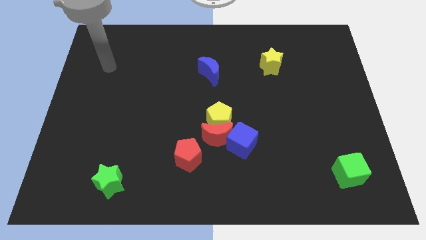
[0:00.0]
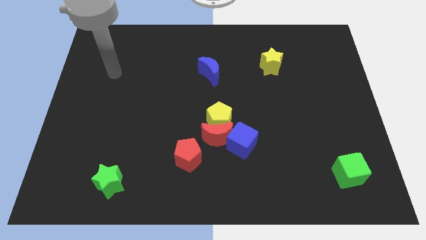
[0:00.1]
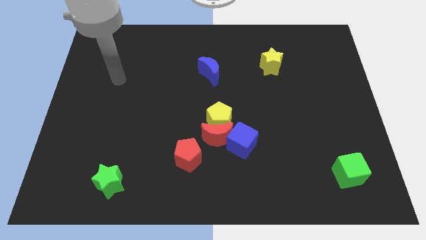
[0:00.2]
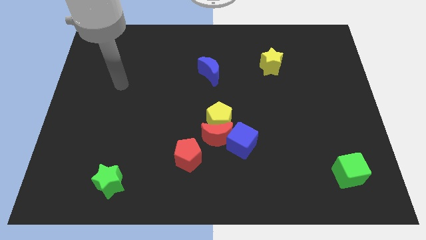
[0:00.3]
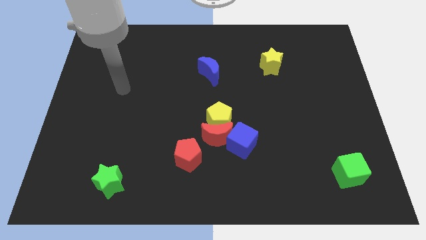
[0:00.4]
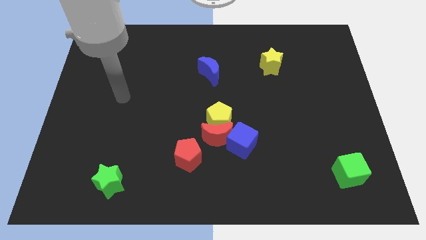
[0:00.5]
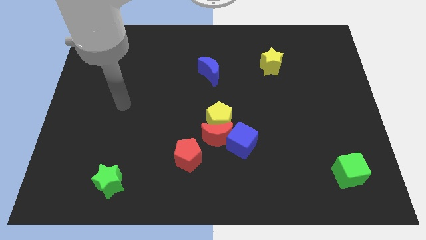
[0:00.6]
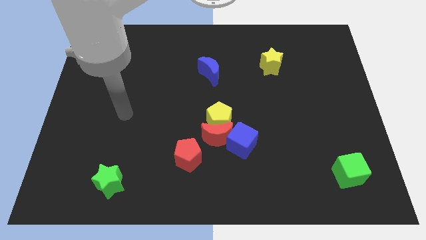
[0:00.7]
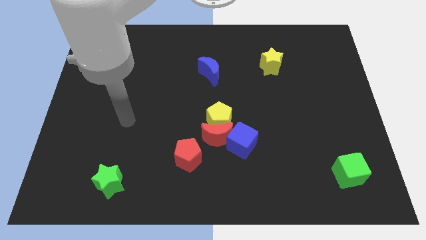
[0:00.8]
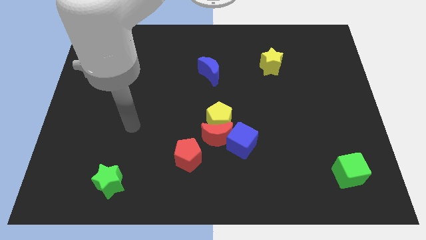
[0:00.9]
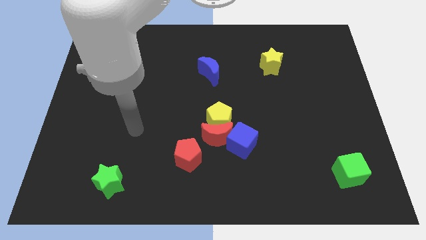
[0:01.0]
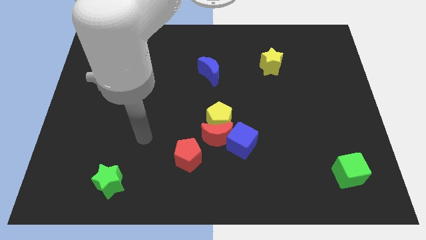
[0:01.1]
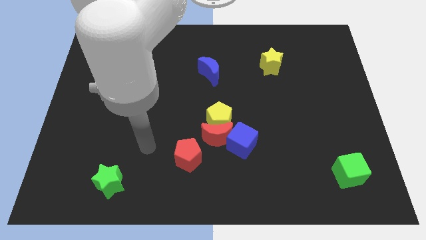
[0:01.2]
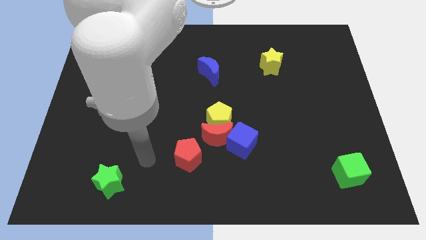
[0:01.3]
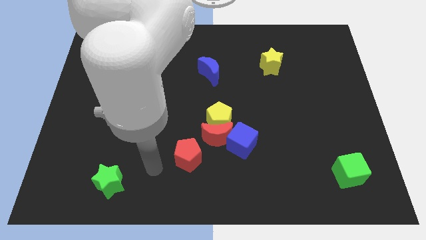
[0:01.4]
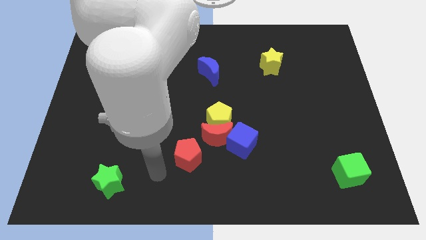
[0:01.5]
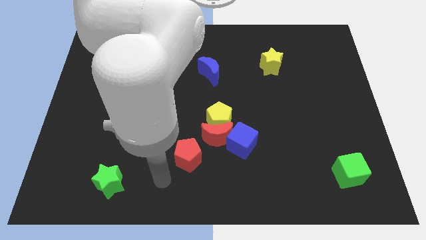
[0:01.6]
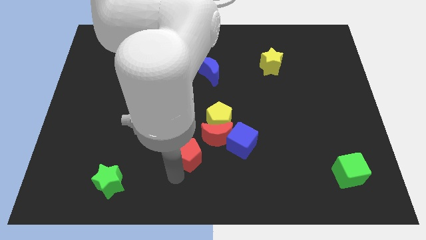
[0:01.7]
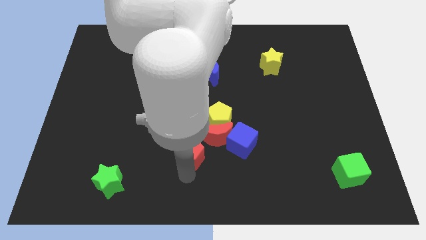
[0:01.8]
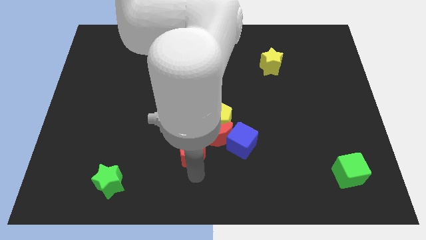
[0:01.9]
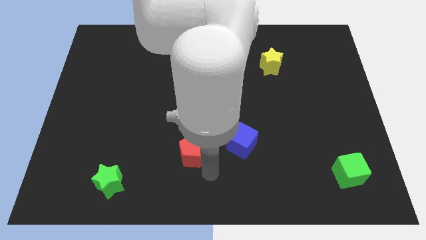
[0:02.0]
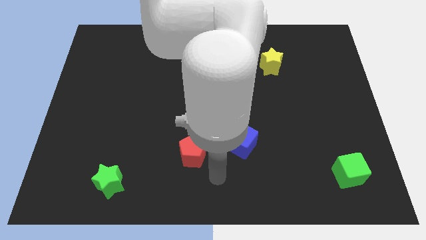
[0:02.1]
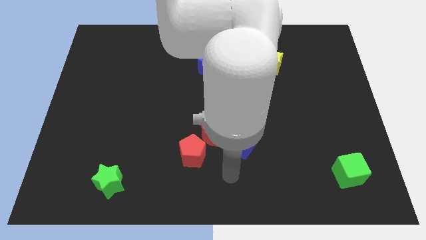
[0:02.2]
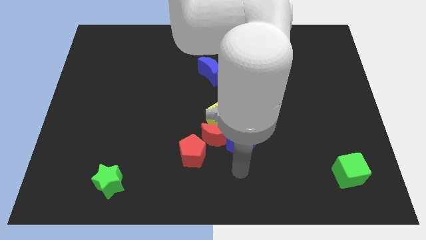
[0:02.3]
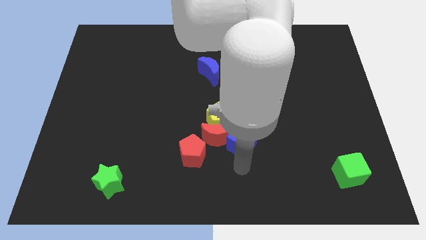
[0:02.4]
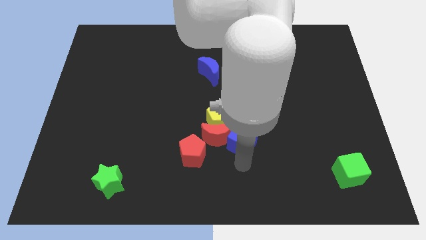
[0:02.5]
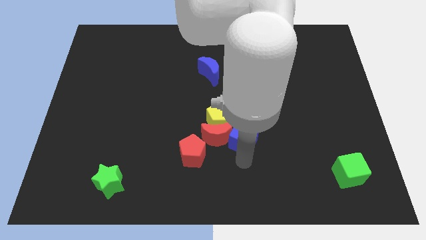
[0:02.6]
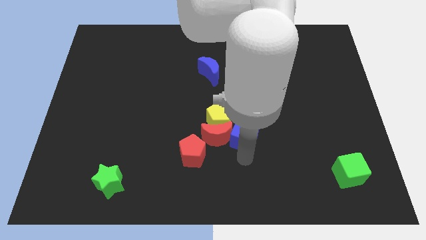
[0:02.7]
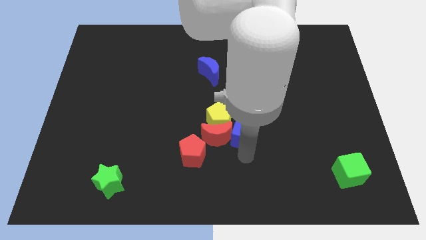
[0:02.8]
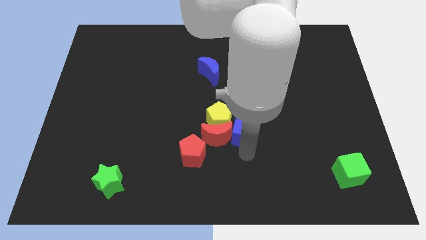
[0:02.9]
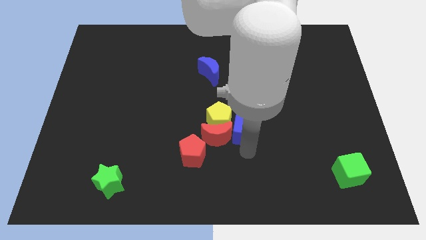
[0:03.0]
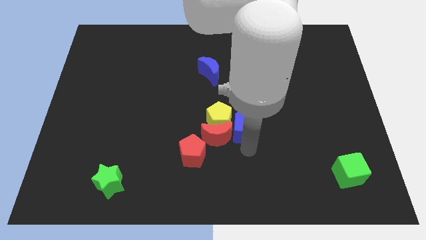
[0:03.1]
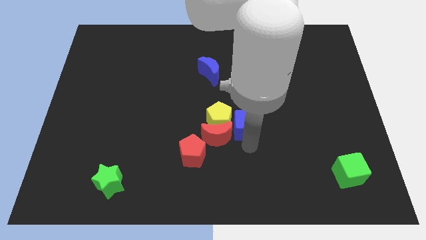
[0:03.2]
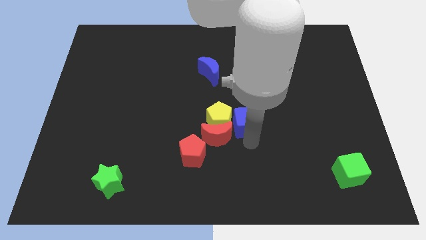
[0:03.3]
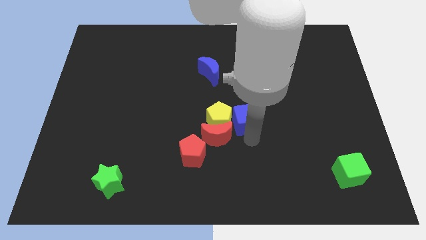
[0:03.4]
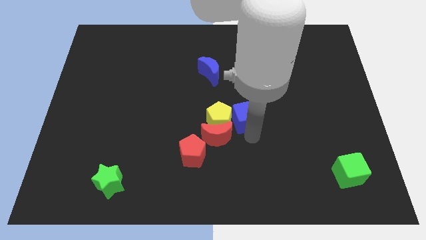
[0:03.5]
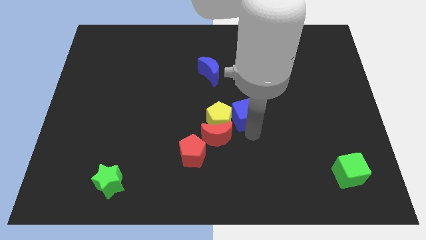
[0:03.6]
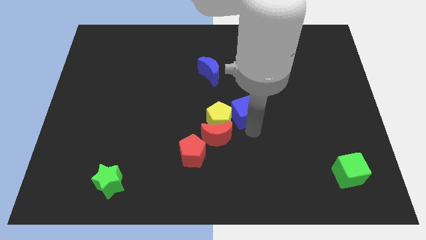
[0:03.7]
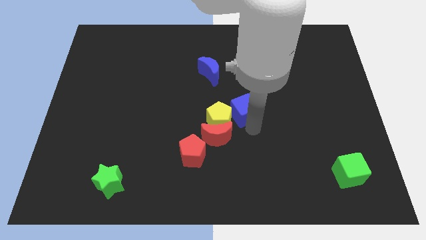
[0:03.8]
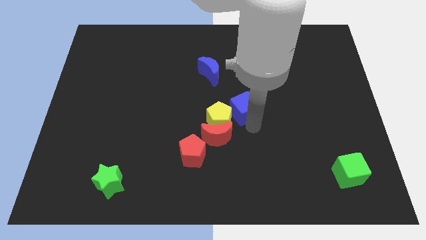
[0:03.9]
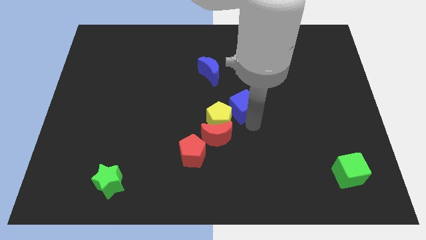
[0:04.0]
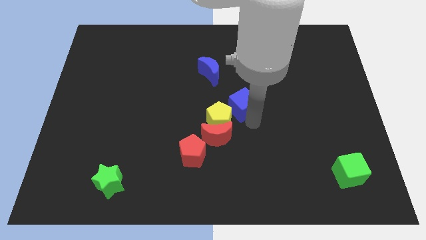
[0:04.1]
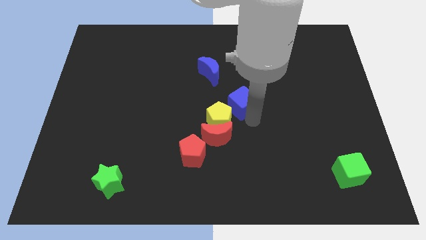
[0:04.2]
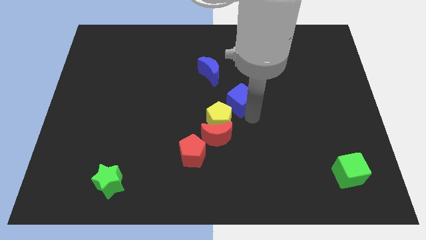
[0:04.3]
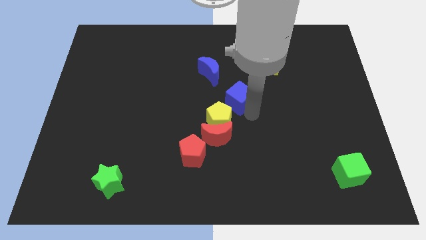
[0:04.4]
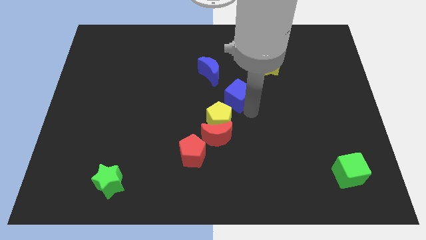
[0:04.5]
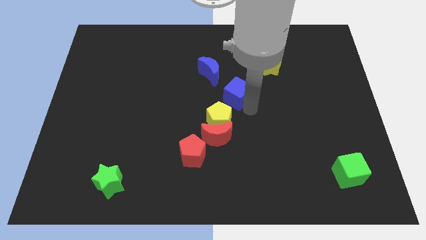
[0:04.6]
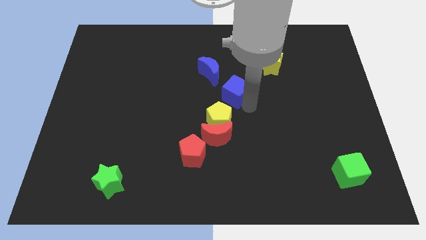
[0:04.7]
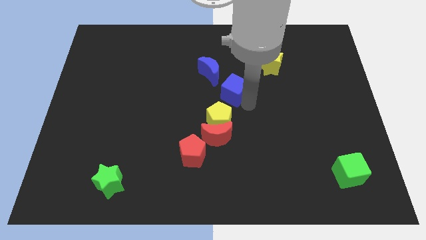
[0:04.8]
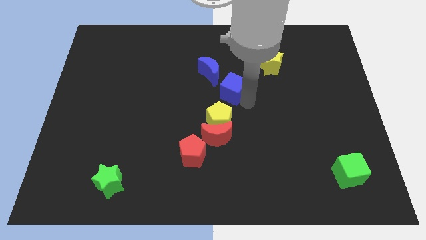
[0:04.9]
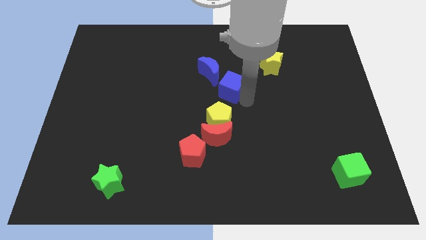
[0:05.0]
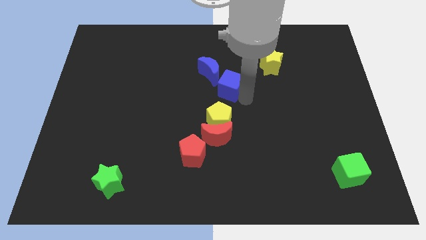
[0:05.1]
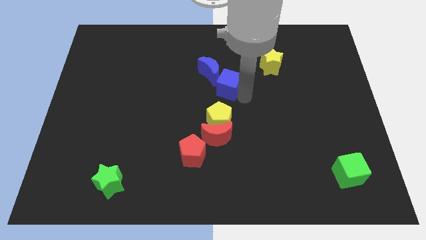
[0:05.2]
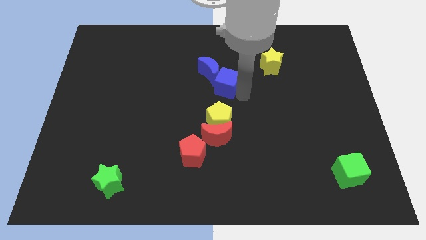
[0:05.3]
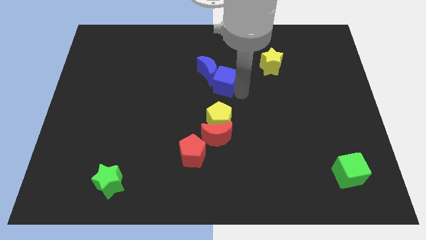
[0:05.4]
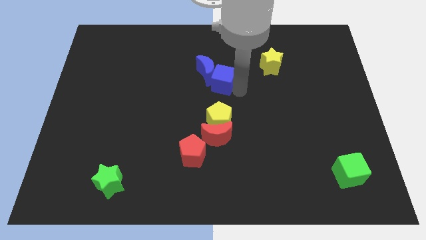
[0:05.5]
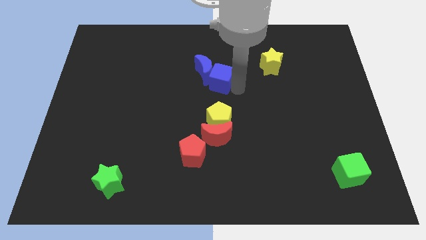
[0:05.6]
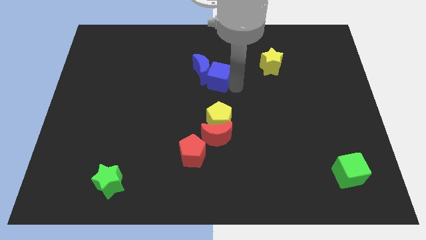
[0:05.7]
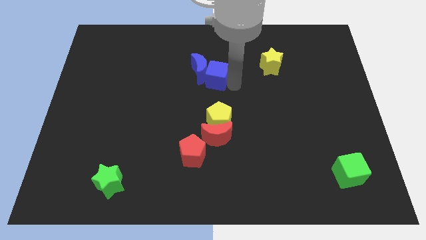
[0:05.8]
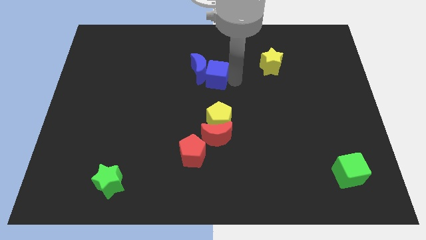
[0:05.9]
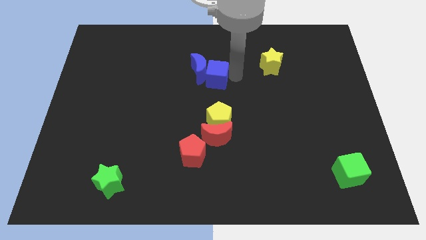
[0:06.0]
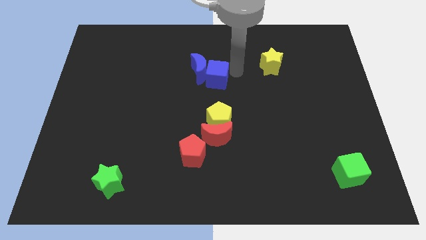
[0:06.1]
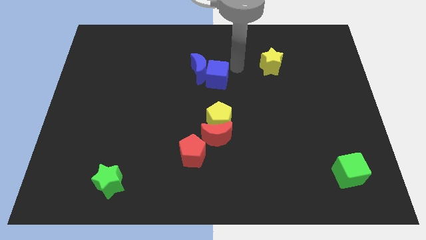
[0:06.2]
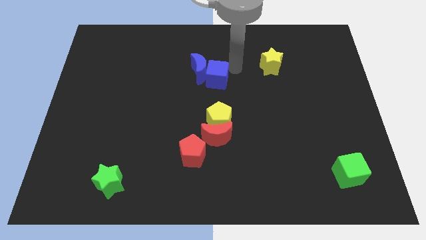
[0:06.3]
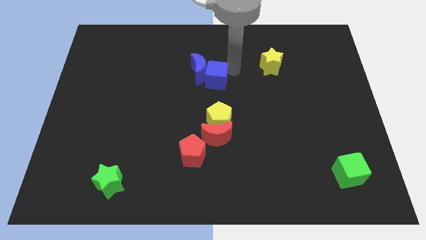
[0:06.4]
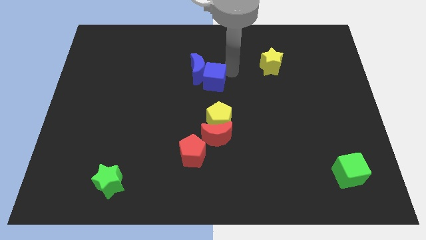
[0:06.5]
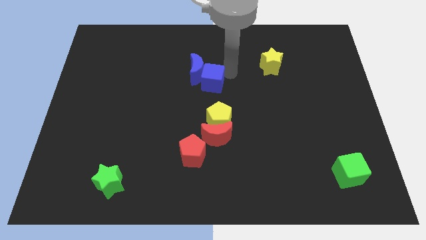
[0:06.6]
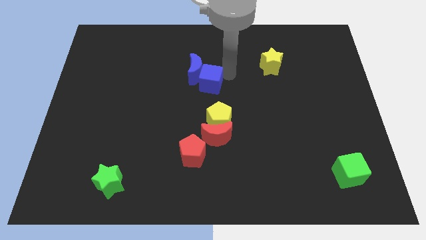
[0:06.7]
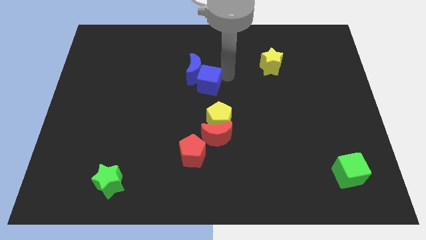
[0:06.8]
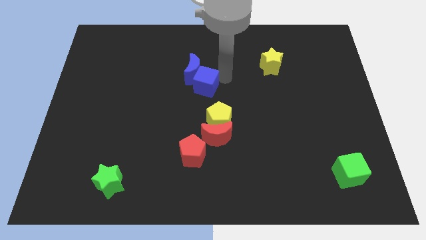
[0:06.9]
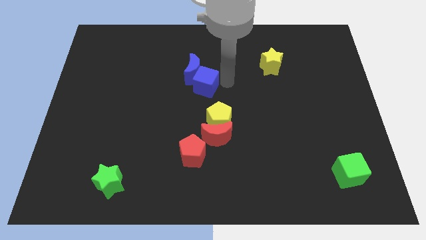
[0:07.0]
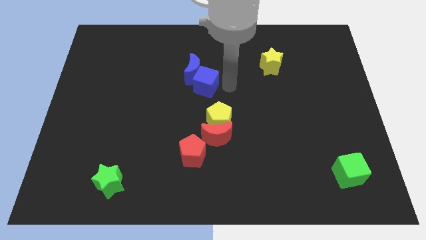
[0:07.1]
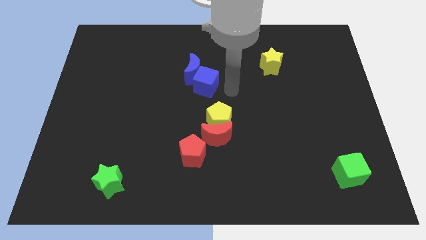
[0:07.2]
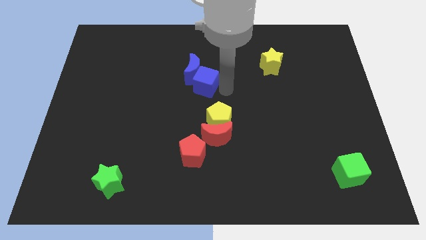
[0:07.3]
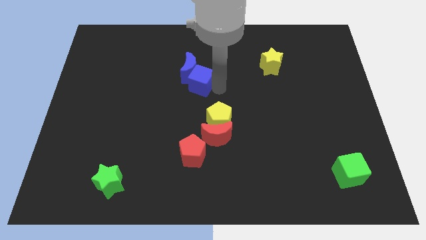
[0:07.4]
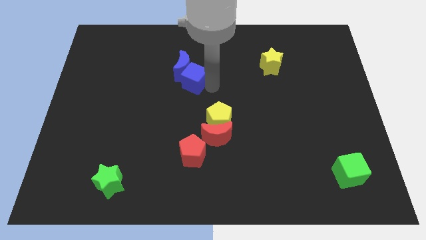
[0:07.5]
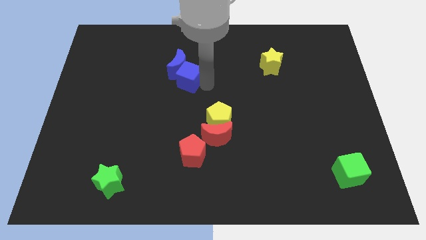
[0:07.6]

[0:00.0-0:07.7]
move the blue cube upwards and then to the left
